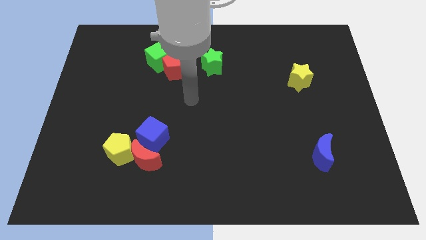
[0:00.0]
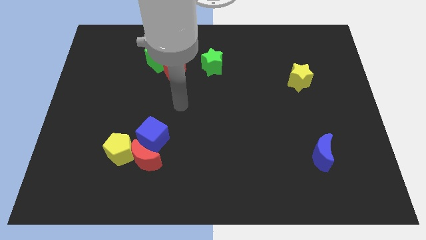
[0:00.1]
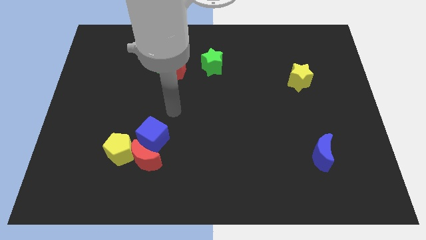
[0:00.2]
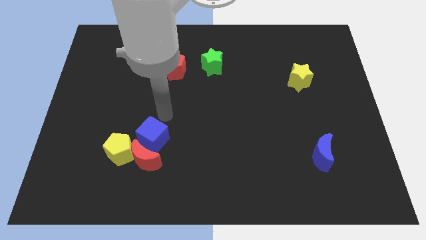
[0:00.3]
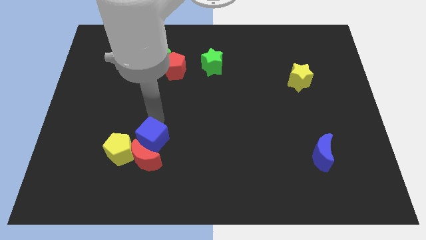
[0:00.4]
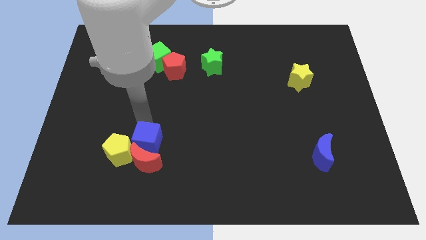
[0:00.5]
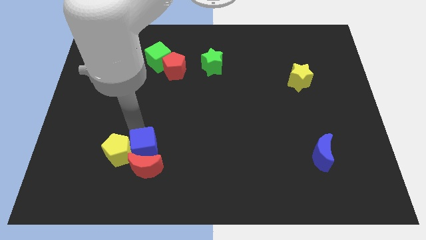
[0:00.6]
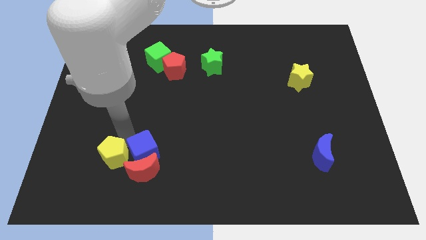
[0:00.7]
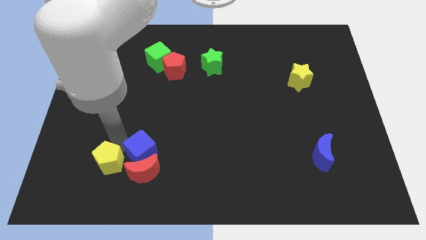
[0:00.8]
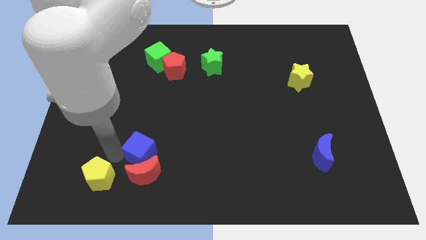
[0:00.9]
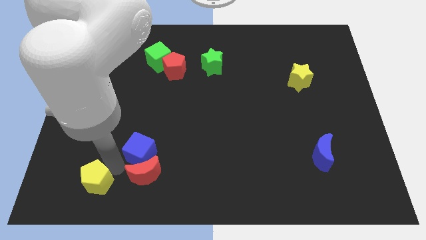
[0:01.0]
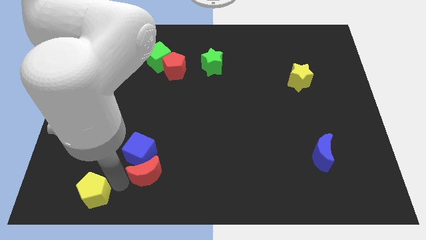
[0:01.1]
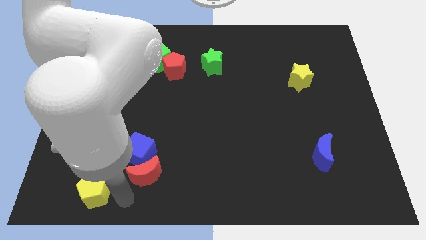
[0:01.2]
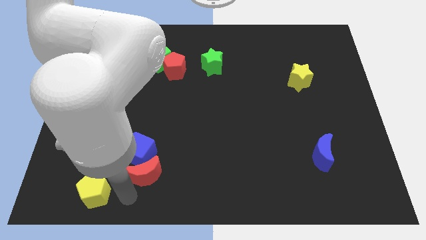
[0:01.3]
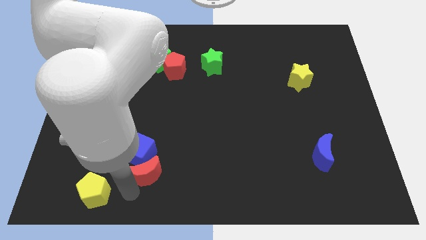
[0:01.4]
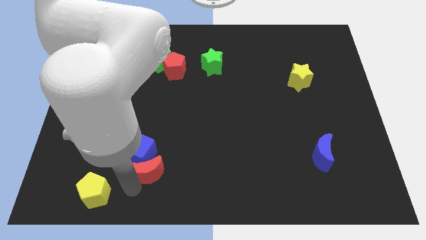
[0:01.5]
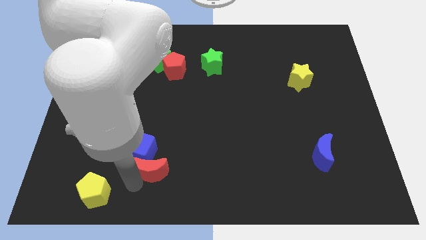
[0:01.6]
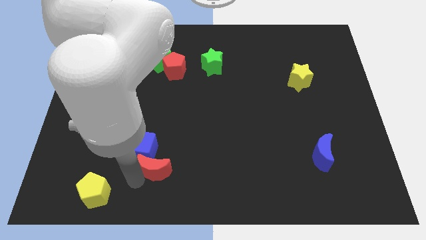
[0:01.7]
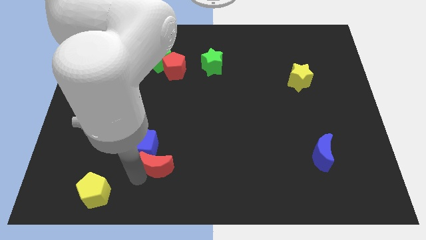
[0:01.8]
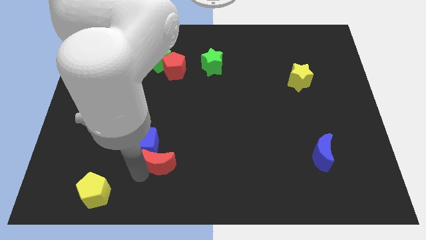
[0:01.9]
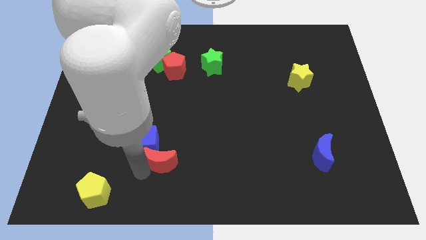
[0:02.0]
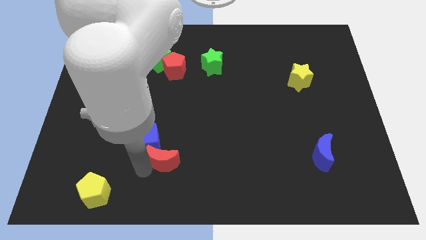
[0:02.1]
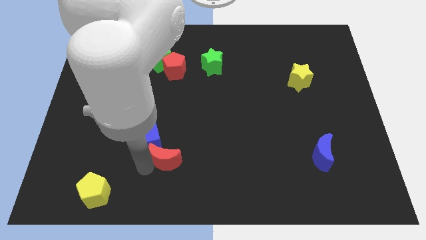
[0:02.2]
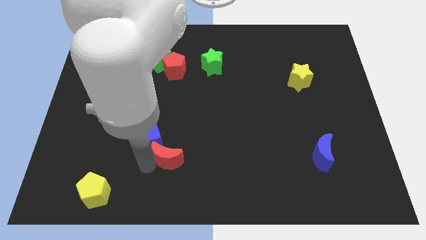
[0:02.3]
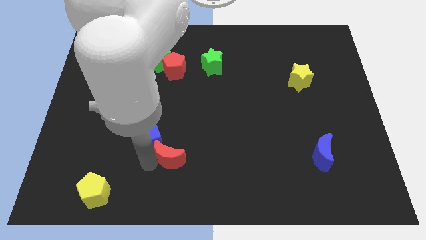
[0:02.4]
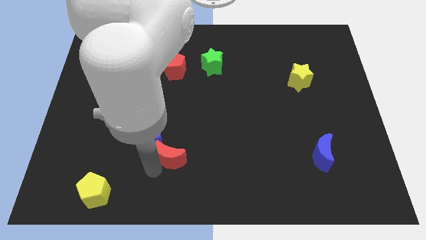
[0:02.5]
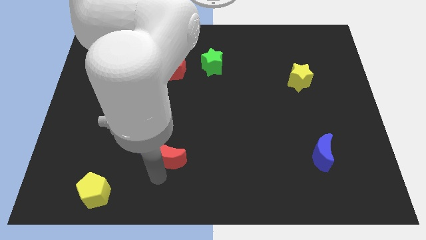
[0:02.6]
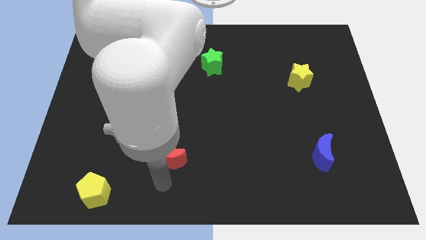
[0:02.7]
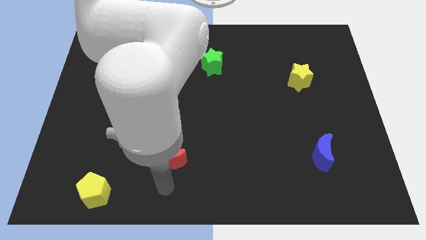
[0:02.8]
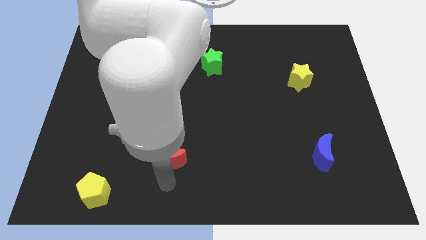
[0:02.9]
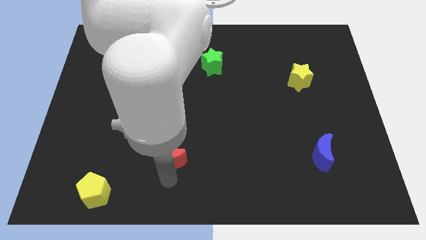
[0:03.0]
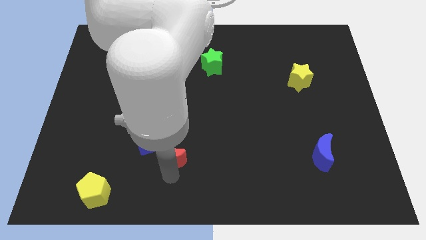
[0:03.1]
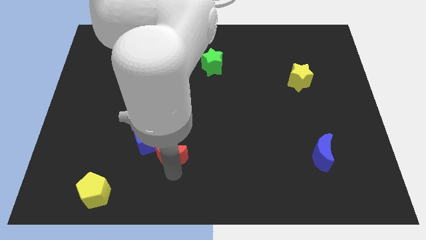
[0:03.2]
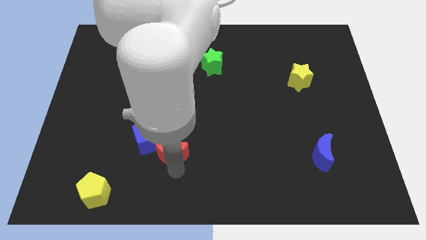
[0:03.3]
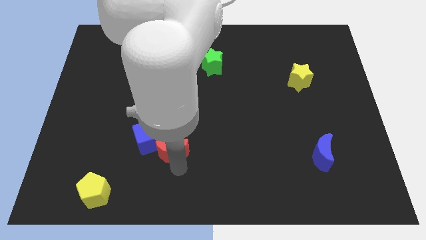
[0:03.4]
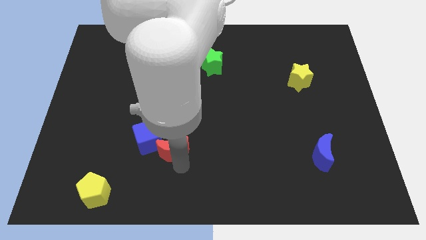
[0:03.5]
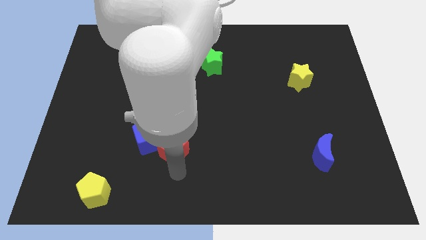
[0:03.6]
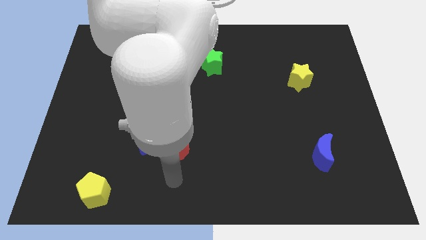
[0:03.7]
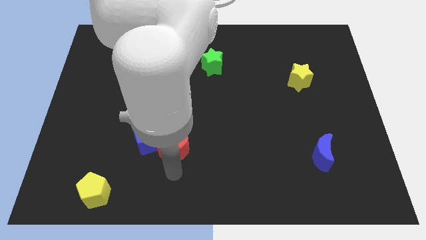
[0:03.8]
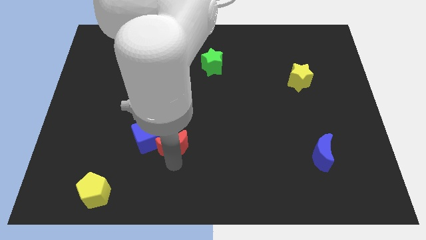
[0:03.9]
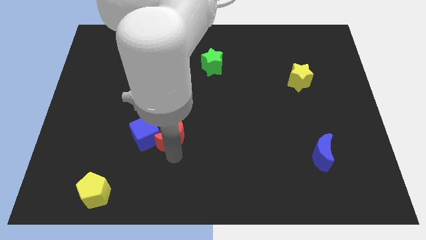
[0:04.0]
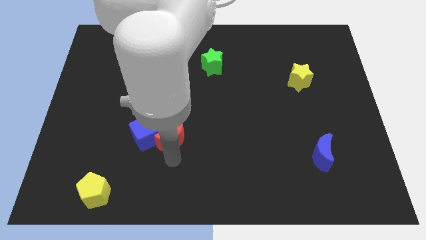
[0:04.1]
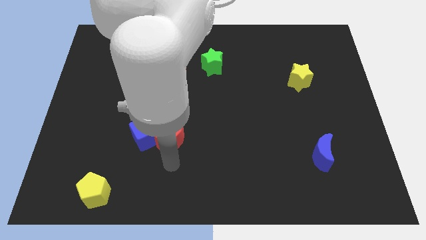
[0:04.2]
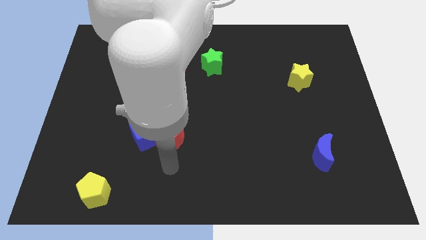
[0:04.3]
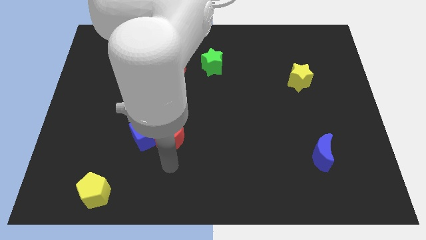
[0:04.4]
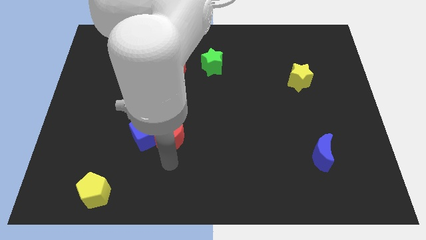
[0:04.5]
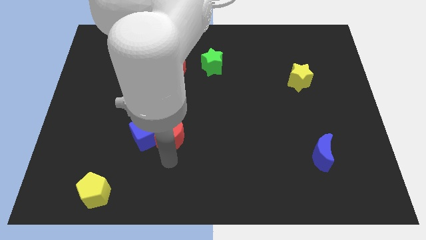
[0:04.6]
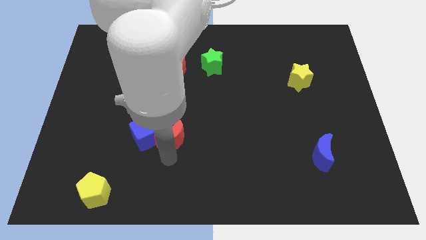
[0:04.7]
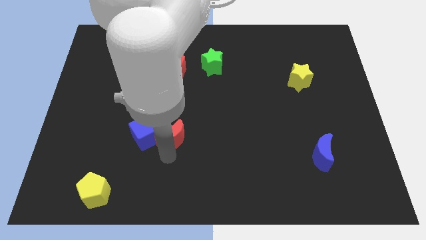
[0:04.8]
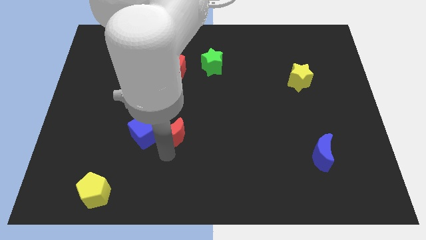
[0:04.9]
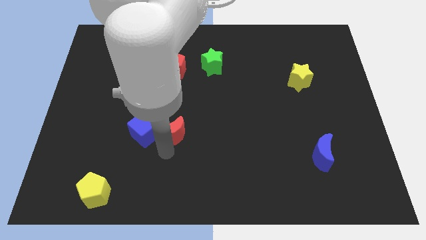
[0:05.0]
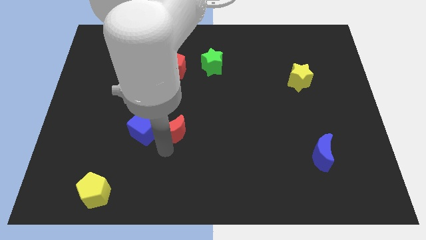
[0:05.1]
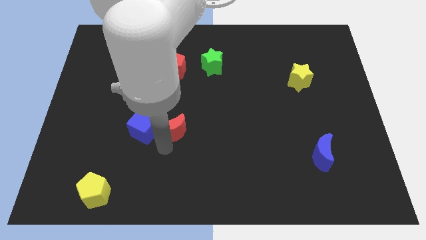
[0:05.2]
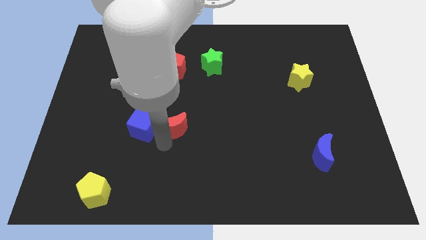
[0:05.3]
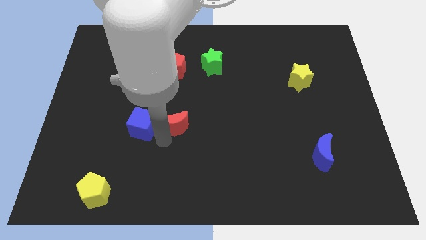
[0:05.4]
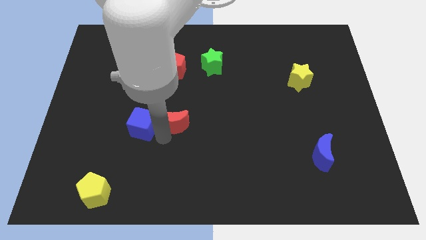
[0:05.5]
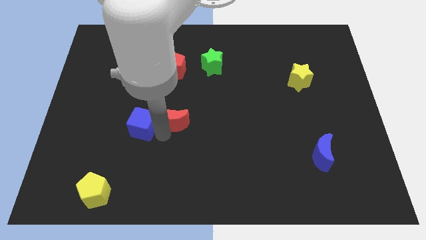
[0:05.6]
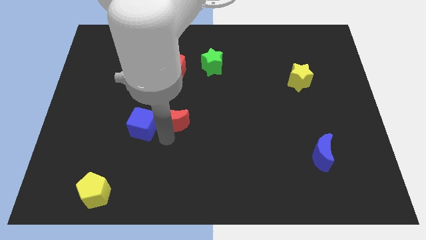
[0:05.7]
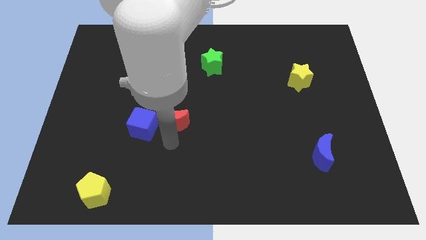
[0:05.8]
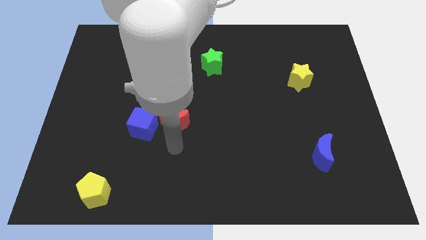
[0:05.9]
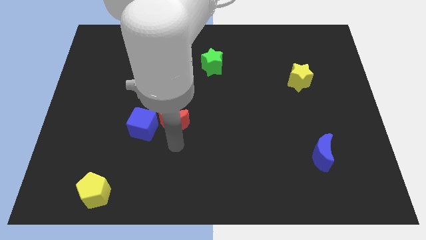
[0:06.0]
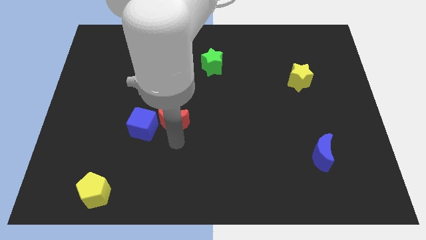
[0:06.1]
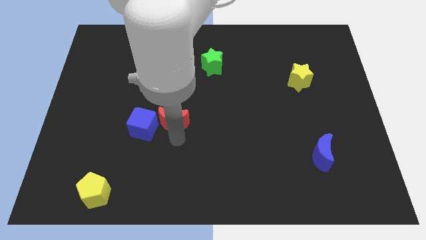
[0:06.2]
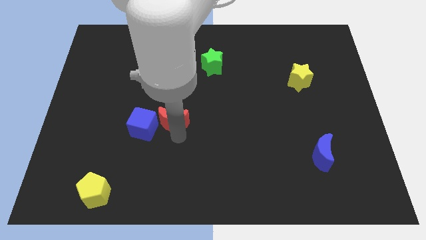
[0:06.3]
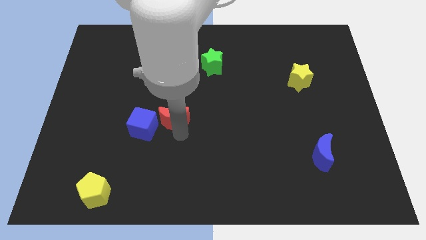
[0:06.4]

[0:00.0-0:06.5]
put the red moon to the bottom side of the red pentagon

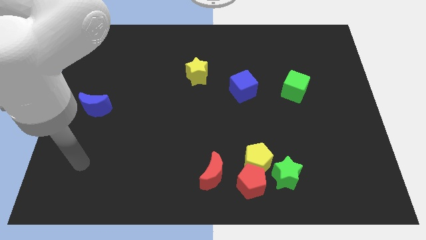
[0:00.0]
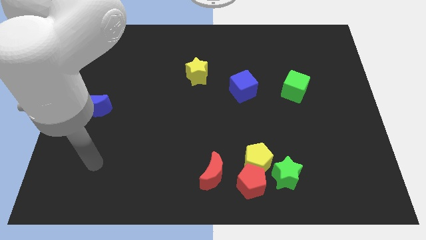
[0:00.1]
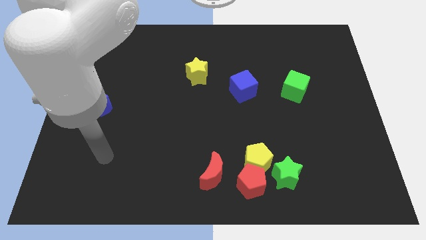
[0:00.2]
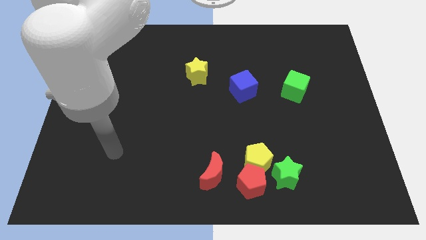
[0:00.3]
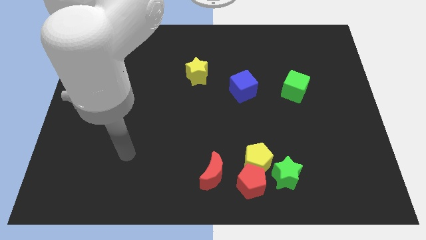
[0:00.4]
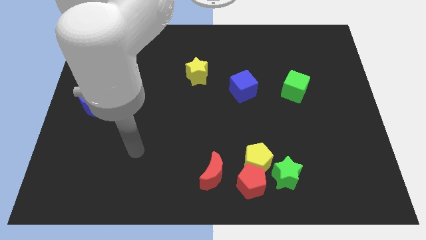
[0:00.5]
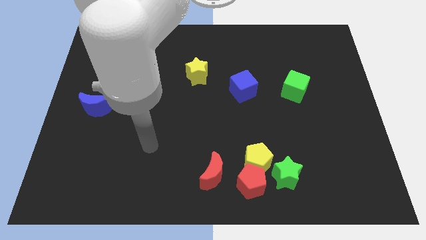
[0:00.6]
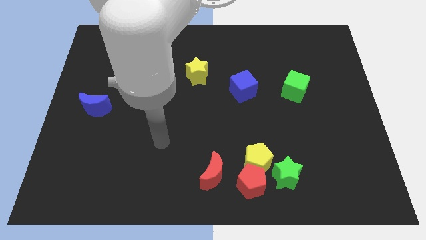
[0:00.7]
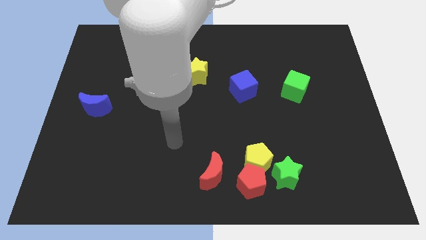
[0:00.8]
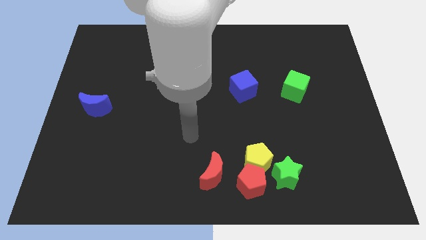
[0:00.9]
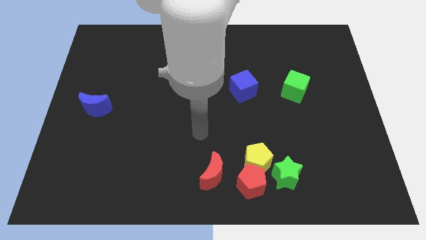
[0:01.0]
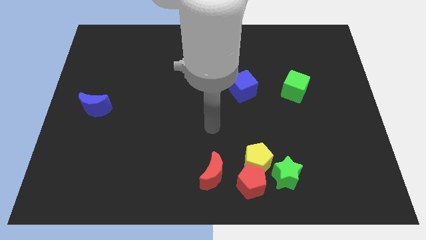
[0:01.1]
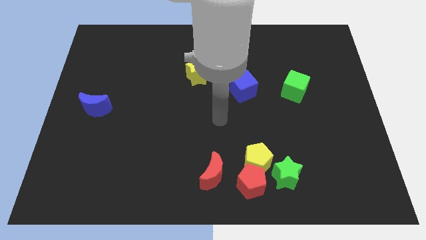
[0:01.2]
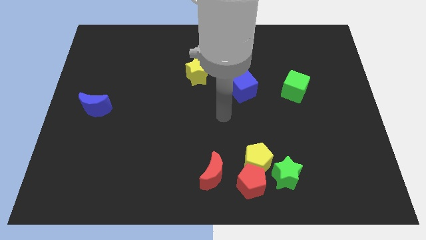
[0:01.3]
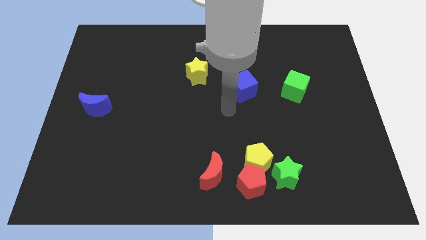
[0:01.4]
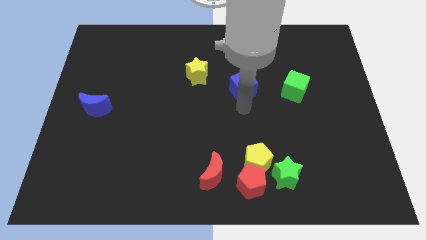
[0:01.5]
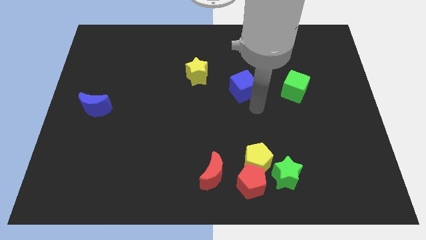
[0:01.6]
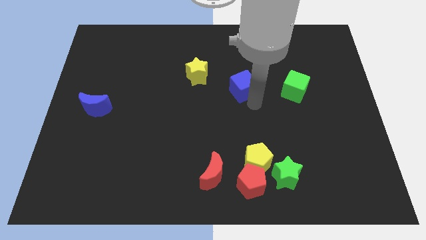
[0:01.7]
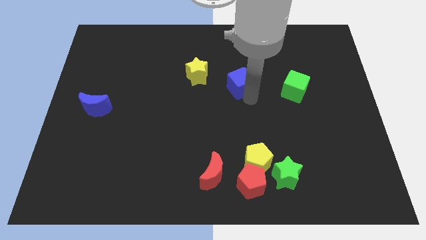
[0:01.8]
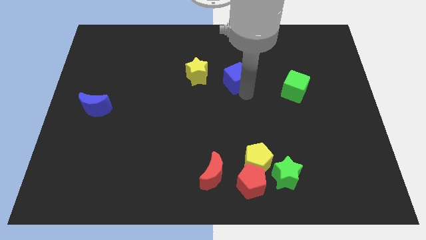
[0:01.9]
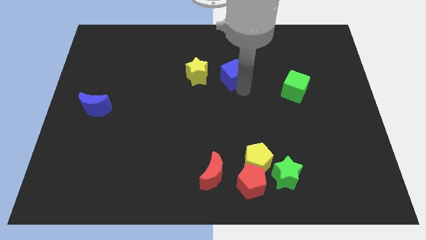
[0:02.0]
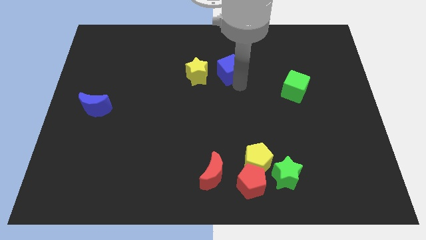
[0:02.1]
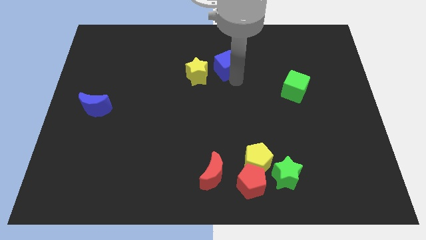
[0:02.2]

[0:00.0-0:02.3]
push the blue cube diagonally up and to the right of the yellow star
